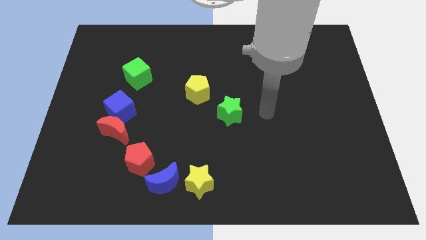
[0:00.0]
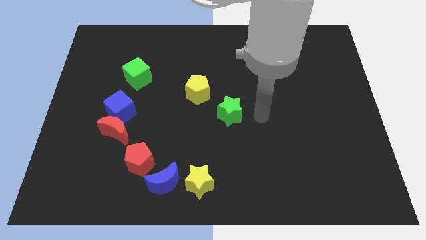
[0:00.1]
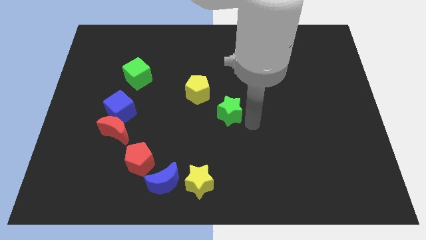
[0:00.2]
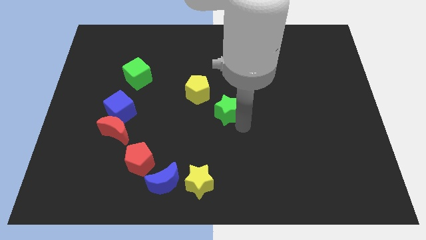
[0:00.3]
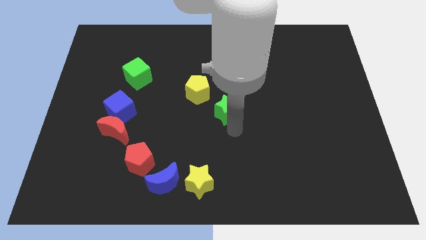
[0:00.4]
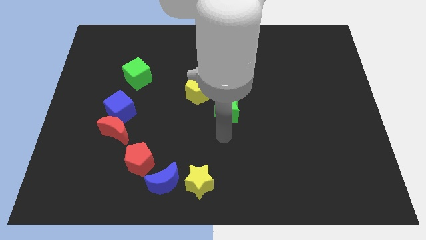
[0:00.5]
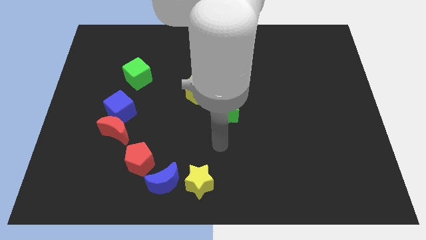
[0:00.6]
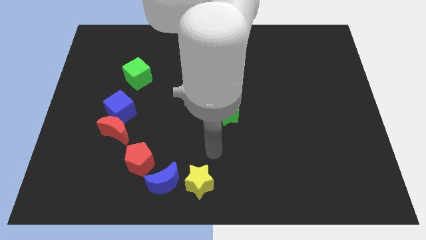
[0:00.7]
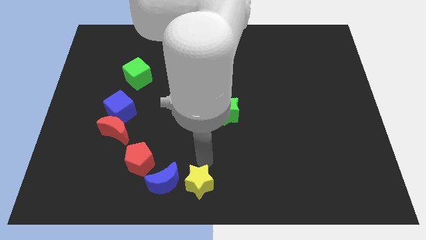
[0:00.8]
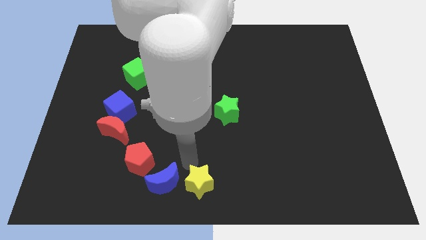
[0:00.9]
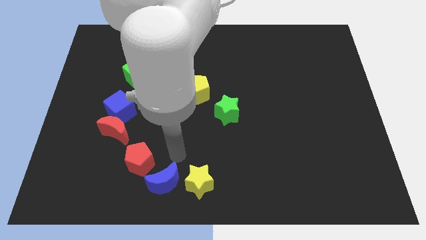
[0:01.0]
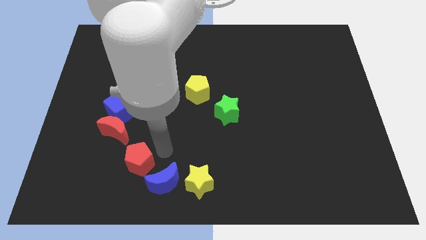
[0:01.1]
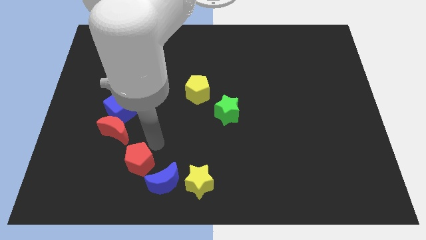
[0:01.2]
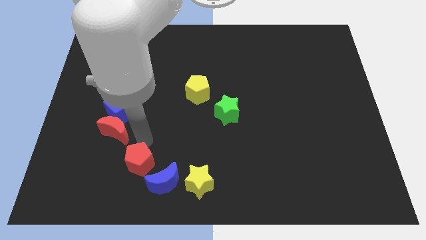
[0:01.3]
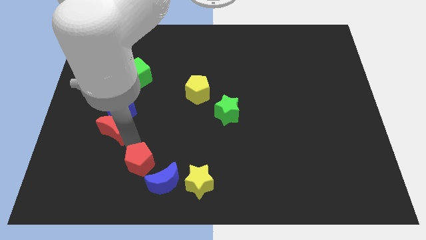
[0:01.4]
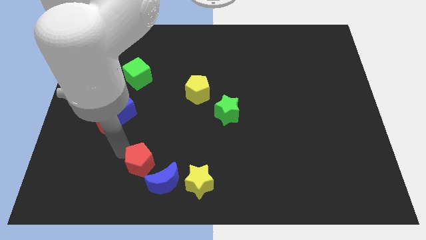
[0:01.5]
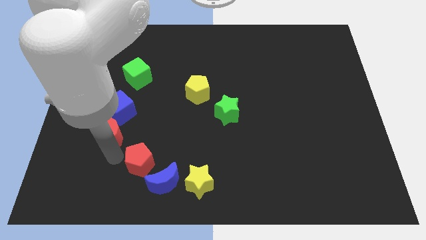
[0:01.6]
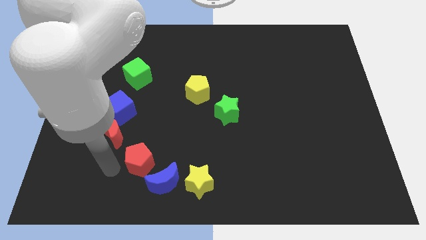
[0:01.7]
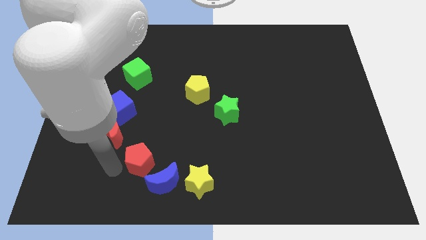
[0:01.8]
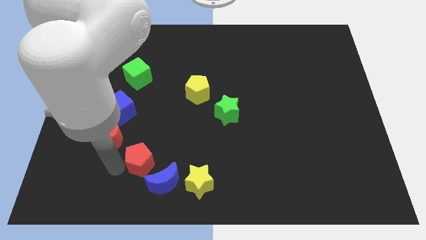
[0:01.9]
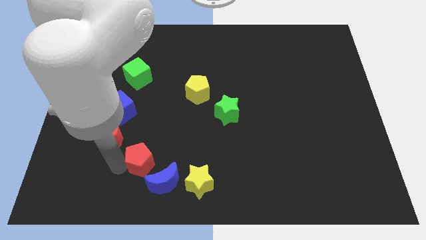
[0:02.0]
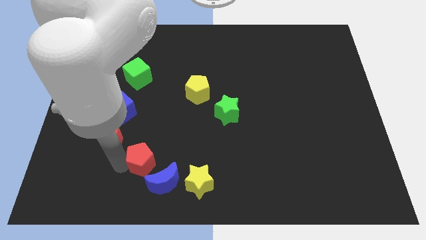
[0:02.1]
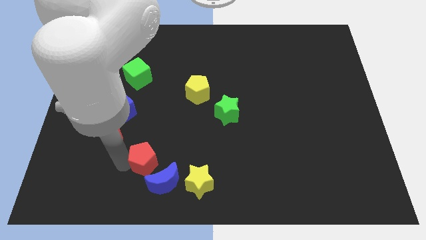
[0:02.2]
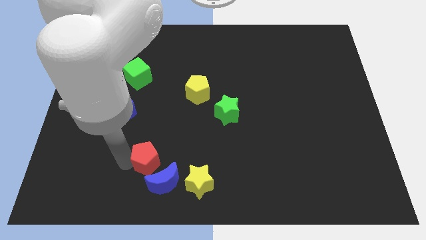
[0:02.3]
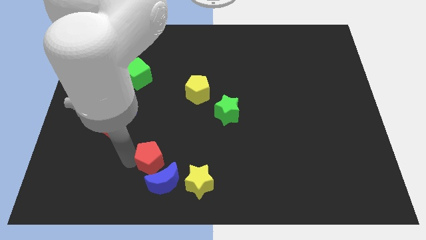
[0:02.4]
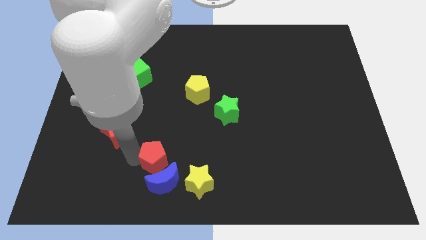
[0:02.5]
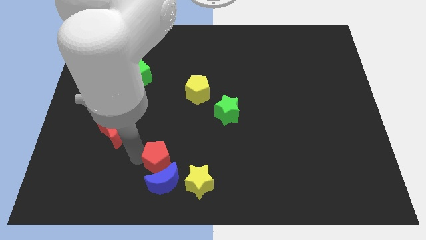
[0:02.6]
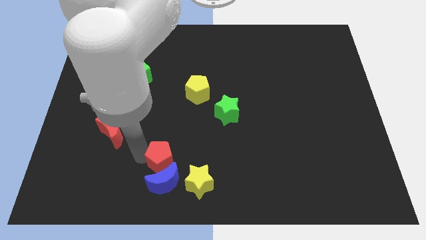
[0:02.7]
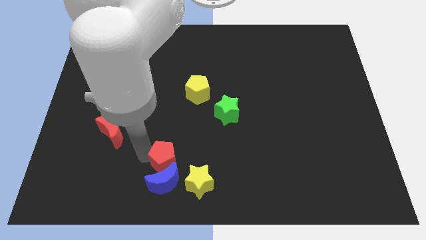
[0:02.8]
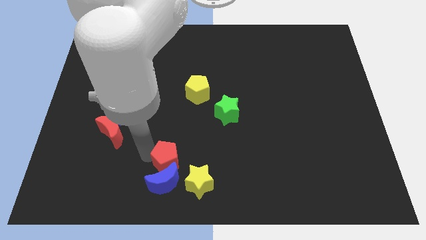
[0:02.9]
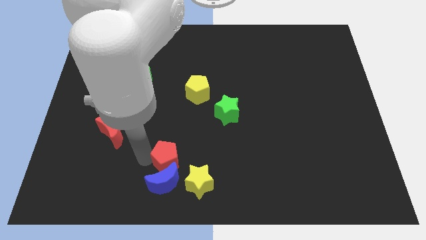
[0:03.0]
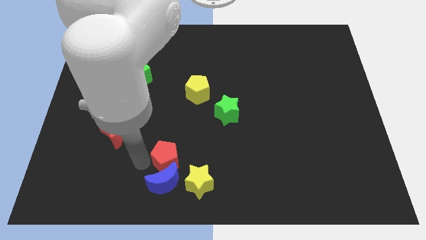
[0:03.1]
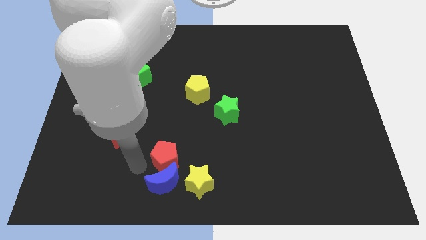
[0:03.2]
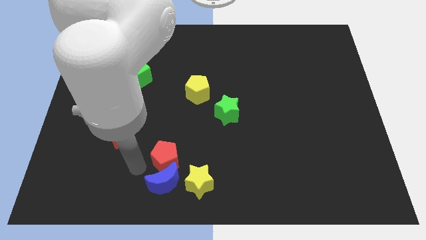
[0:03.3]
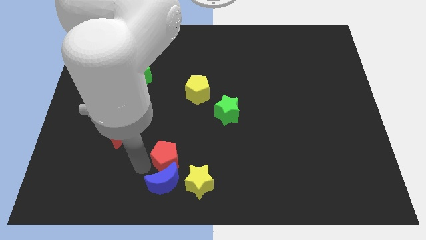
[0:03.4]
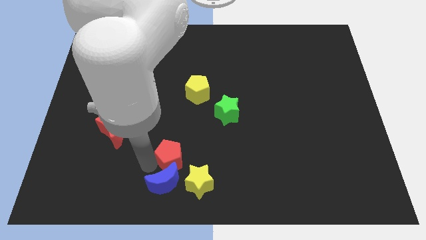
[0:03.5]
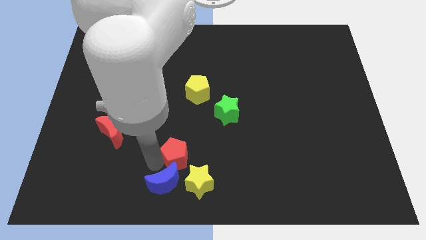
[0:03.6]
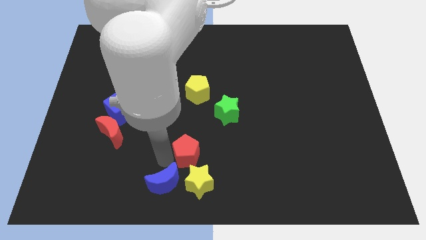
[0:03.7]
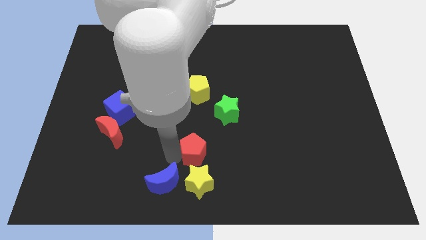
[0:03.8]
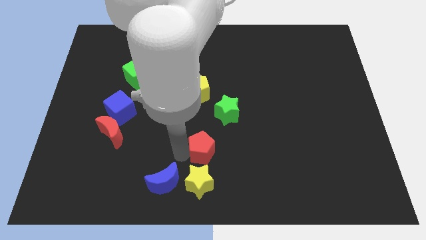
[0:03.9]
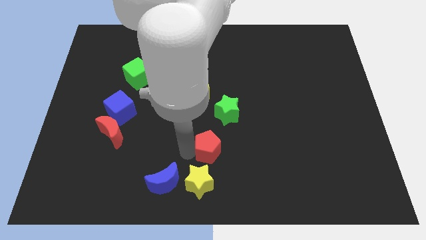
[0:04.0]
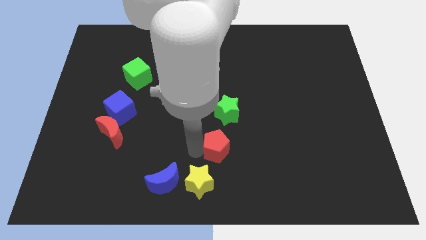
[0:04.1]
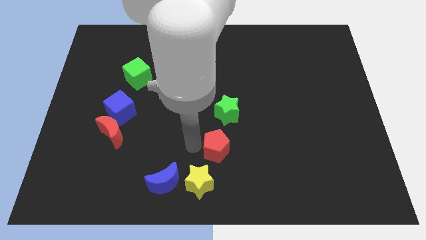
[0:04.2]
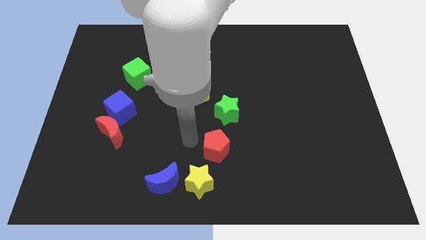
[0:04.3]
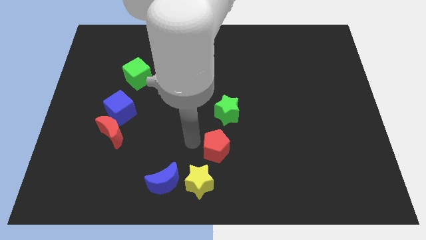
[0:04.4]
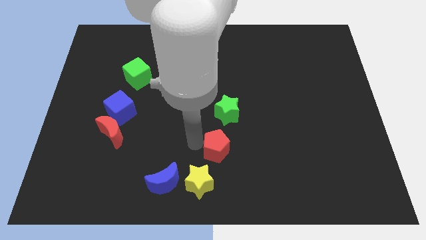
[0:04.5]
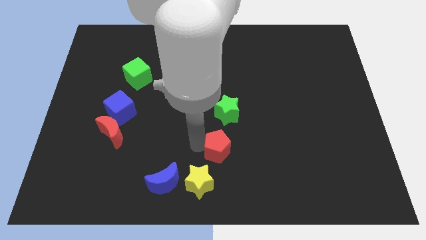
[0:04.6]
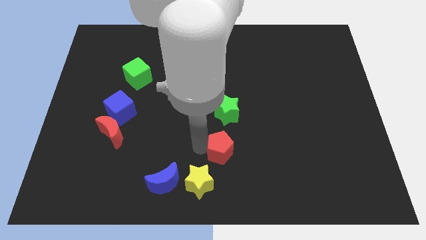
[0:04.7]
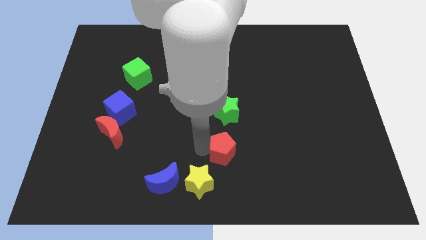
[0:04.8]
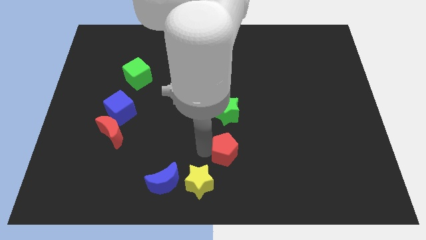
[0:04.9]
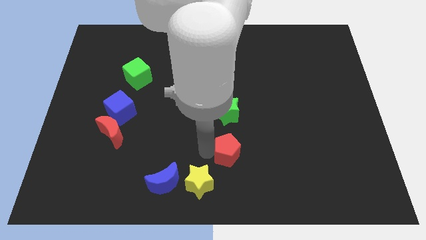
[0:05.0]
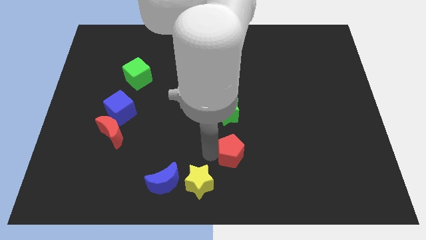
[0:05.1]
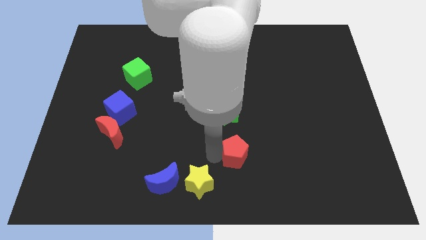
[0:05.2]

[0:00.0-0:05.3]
push the red pentagon to the right

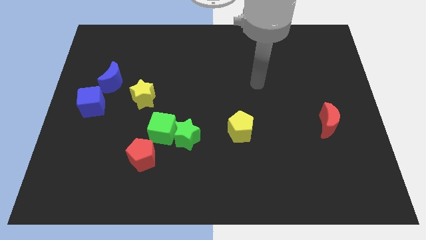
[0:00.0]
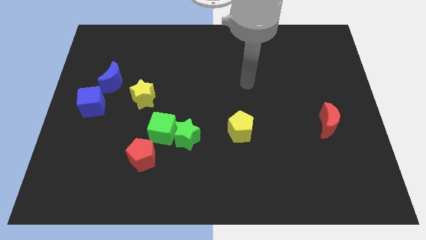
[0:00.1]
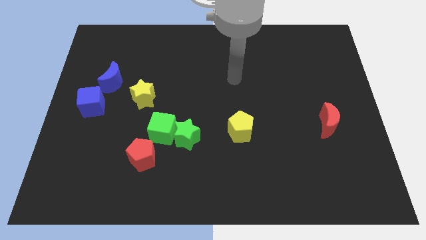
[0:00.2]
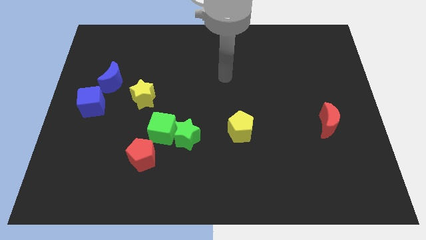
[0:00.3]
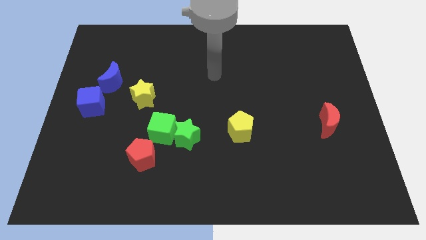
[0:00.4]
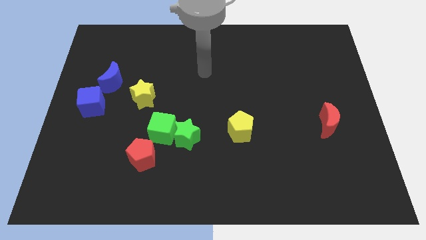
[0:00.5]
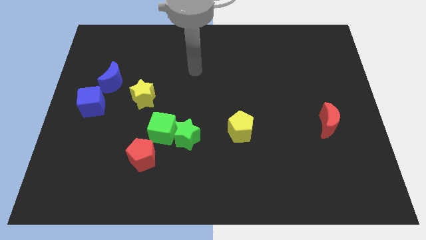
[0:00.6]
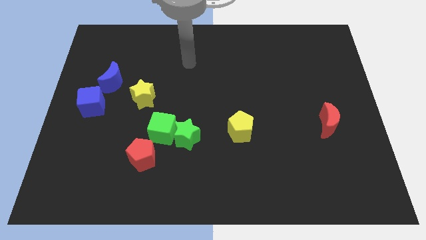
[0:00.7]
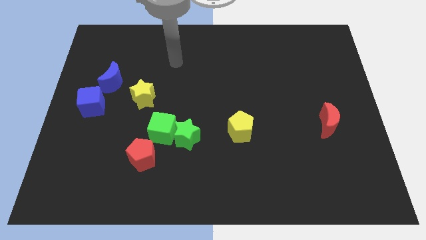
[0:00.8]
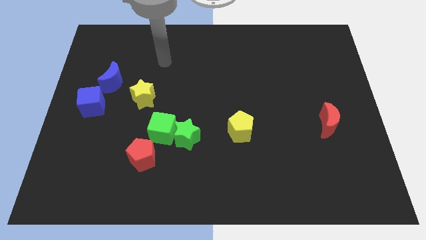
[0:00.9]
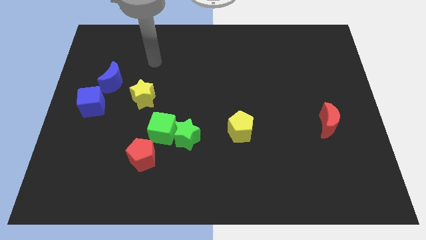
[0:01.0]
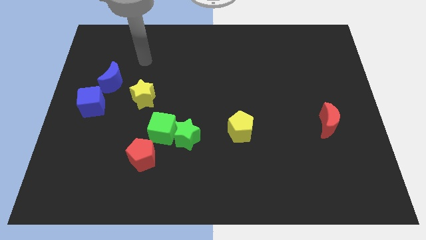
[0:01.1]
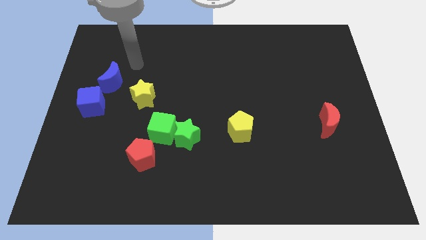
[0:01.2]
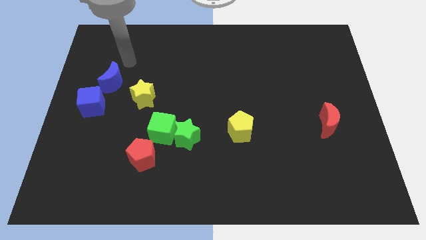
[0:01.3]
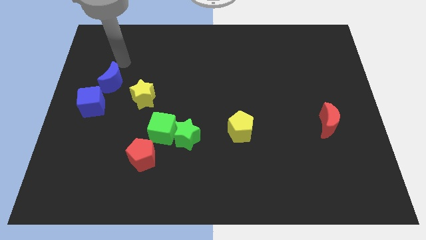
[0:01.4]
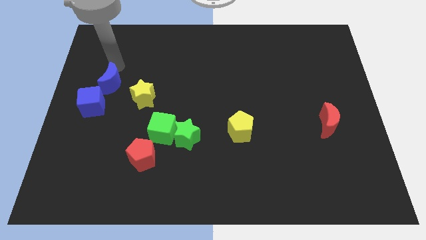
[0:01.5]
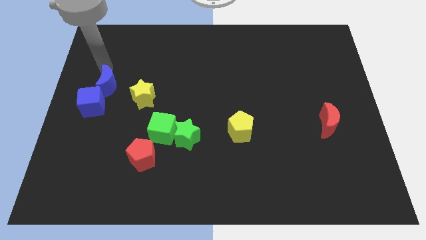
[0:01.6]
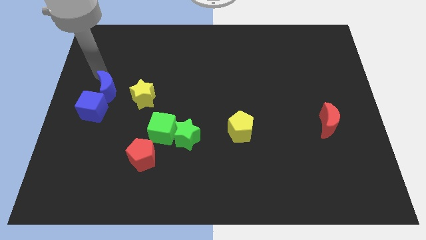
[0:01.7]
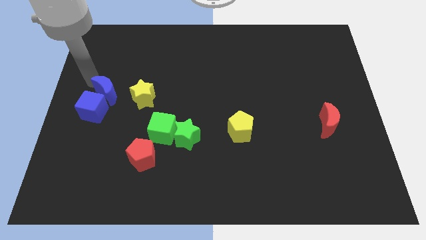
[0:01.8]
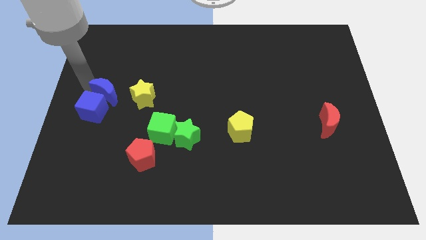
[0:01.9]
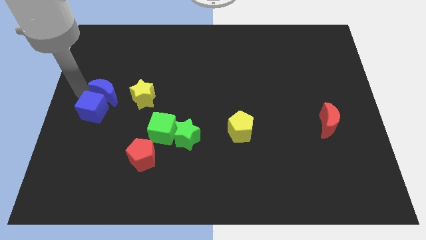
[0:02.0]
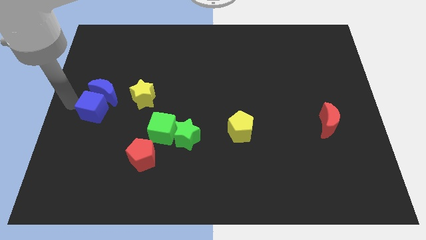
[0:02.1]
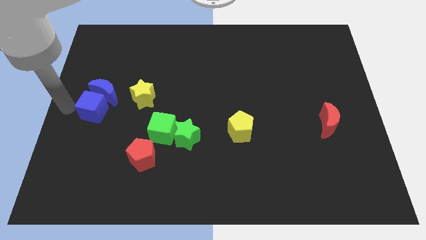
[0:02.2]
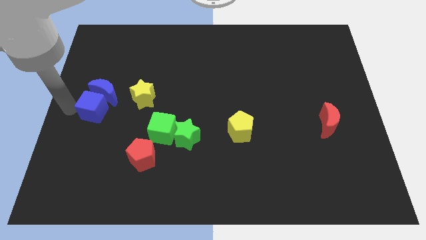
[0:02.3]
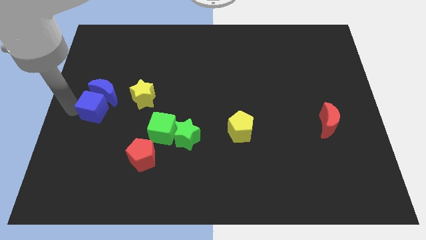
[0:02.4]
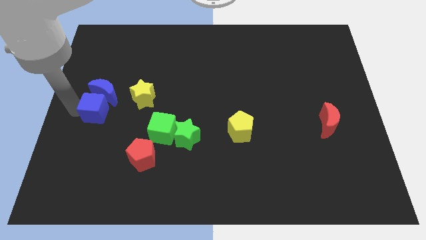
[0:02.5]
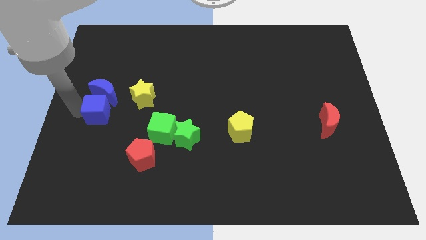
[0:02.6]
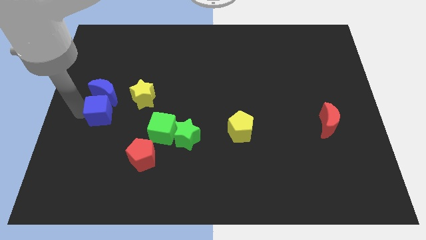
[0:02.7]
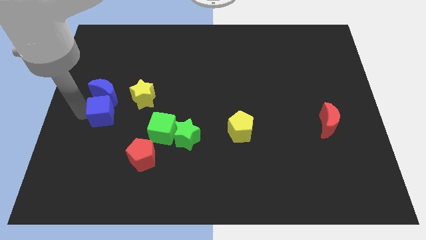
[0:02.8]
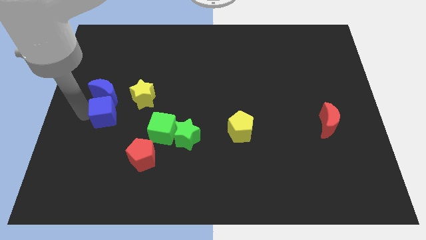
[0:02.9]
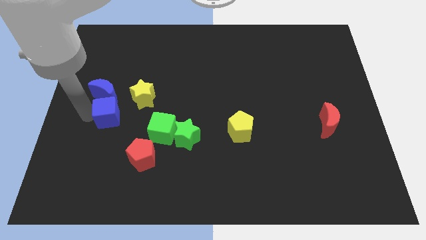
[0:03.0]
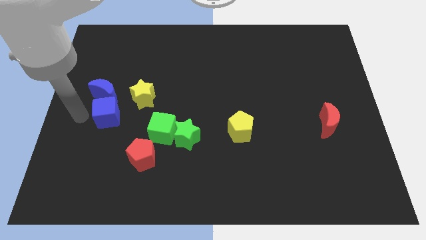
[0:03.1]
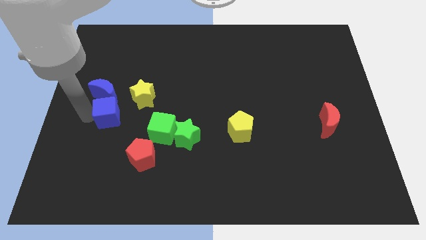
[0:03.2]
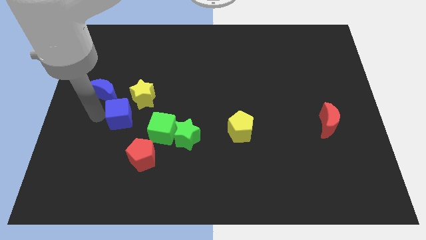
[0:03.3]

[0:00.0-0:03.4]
push the blue cube slightly right
